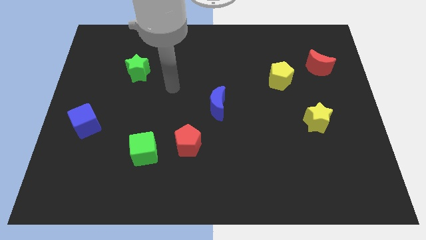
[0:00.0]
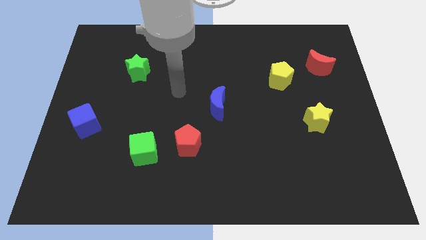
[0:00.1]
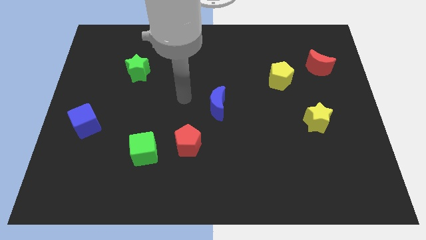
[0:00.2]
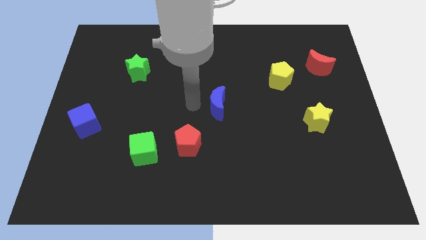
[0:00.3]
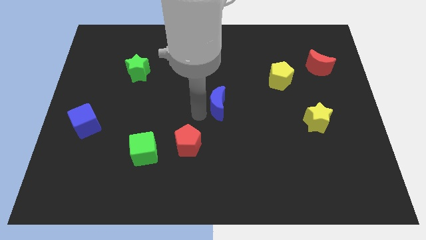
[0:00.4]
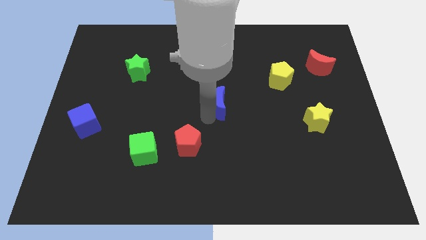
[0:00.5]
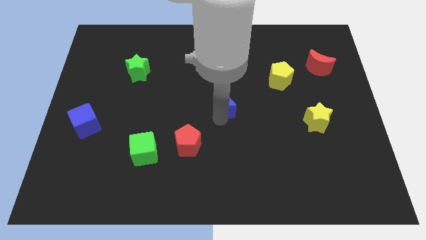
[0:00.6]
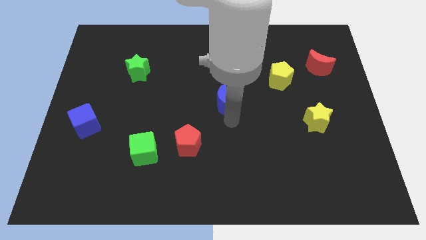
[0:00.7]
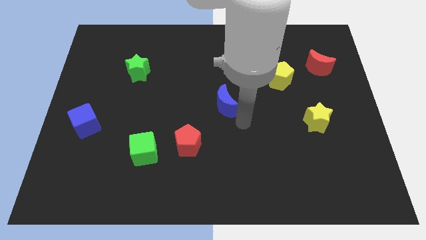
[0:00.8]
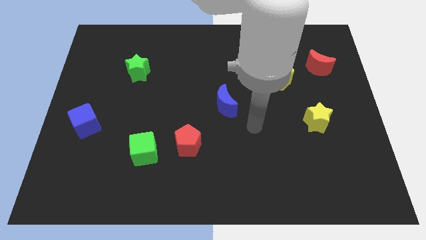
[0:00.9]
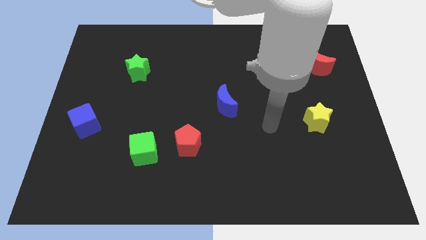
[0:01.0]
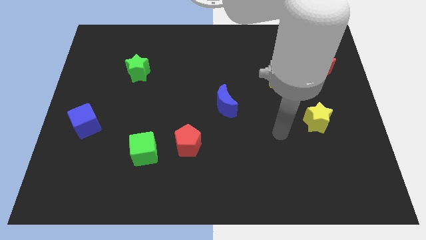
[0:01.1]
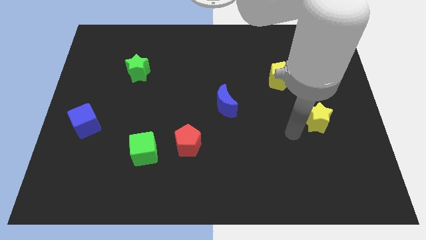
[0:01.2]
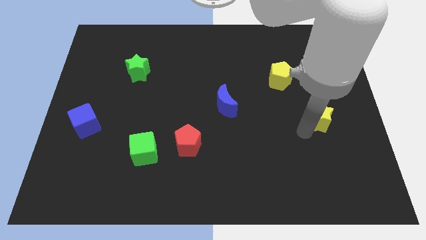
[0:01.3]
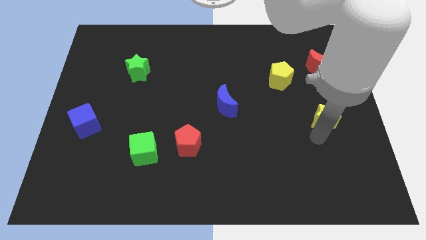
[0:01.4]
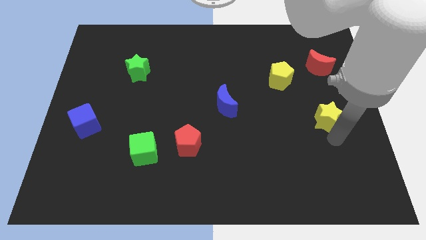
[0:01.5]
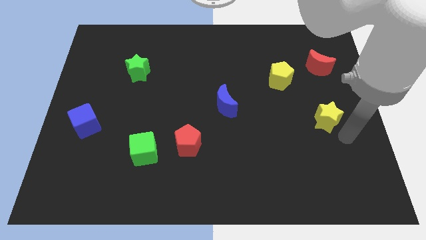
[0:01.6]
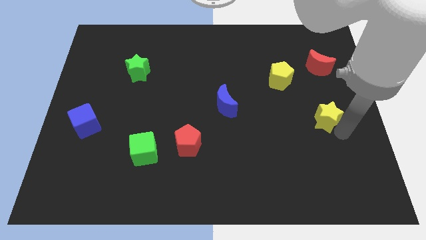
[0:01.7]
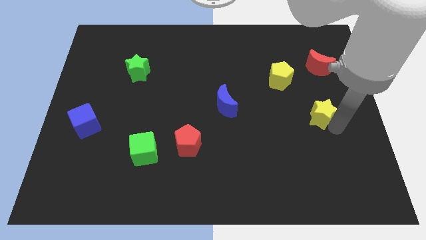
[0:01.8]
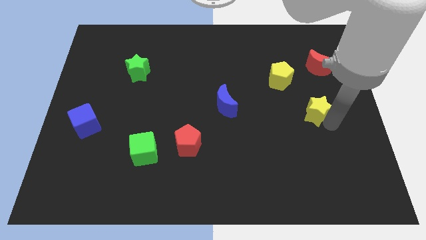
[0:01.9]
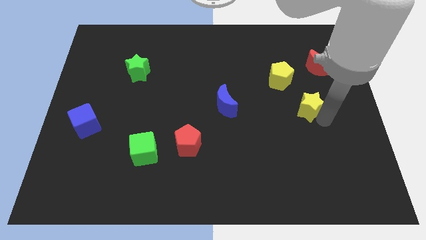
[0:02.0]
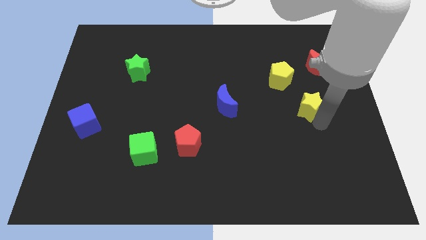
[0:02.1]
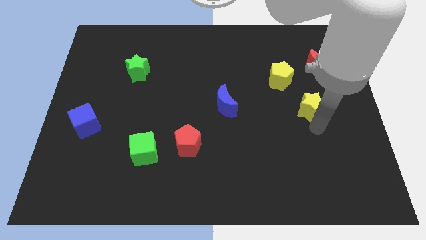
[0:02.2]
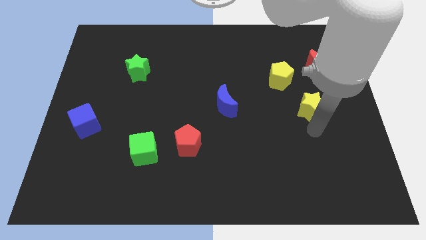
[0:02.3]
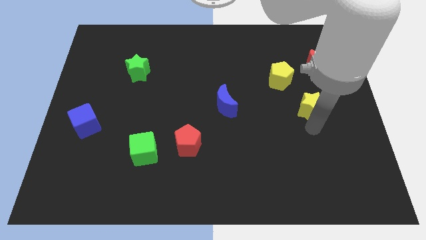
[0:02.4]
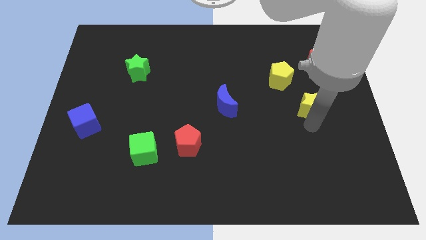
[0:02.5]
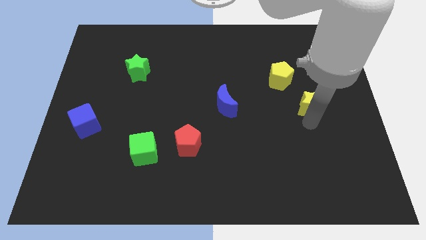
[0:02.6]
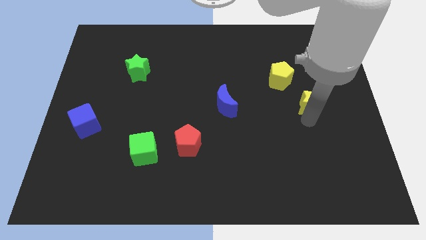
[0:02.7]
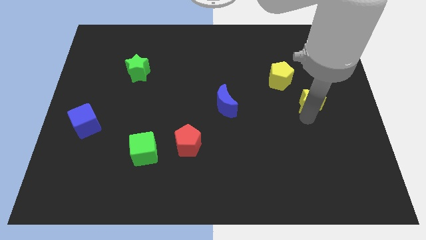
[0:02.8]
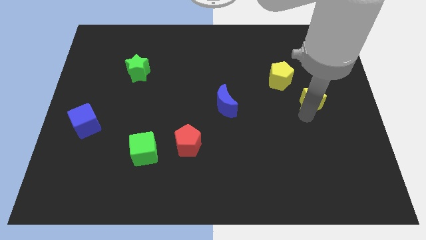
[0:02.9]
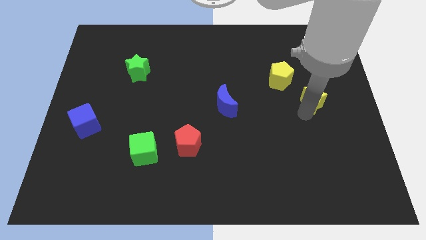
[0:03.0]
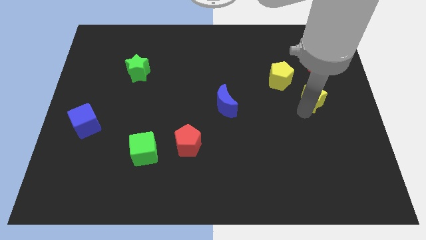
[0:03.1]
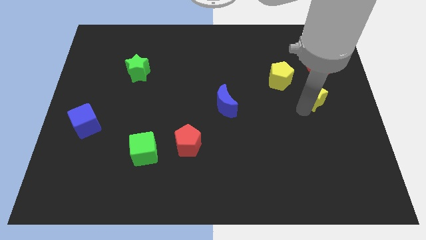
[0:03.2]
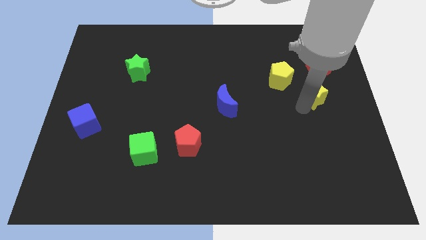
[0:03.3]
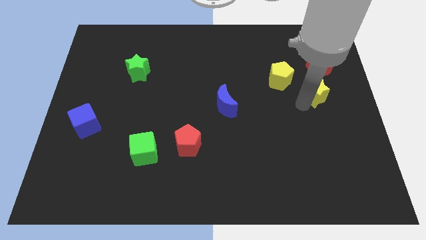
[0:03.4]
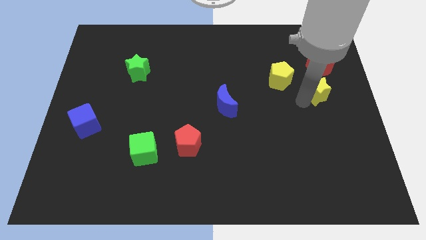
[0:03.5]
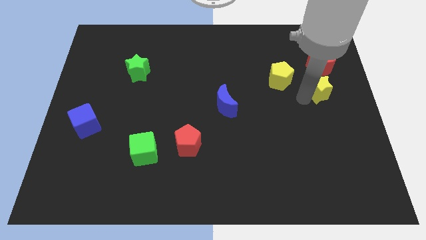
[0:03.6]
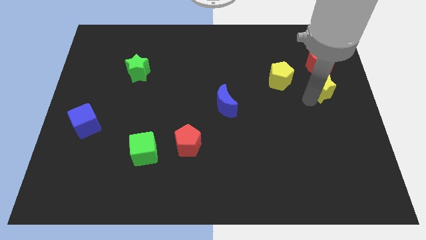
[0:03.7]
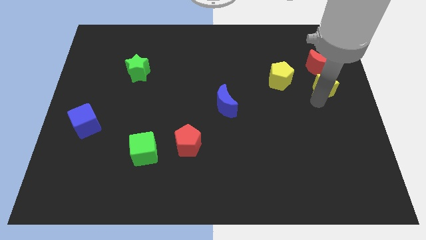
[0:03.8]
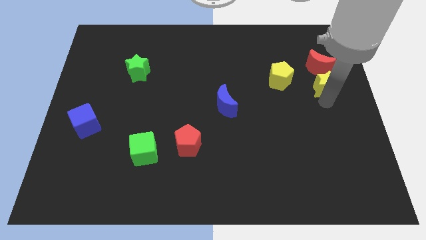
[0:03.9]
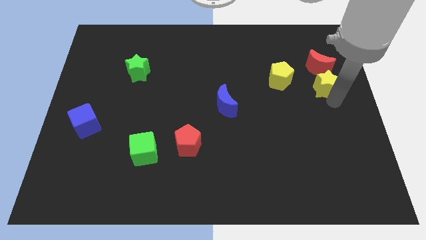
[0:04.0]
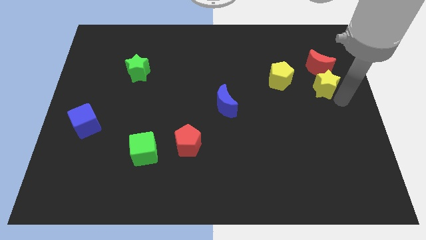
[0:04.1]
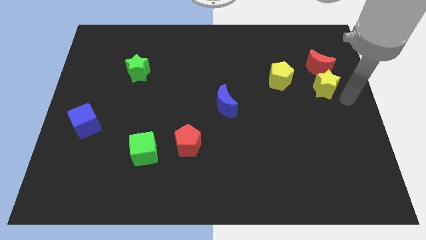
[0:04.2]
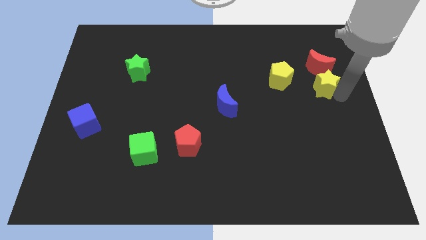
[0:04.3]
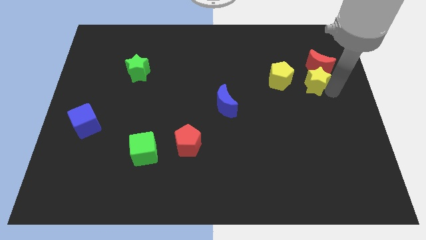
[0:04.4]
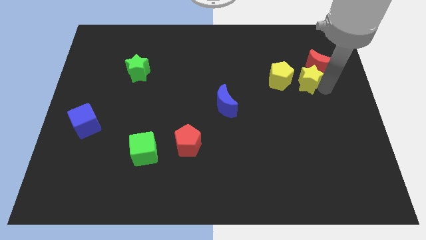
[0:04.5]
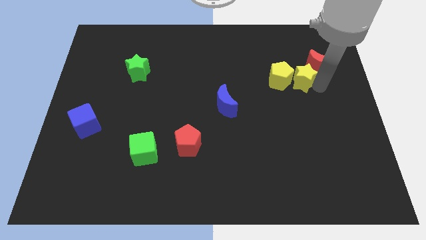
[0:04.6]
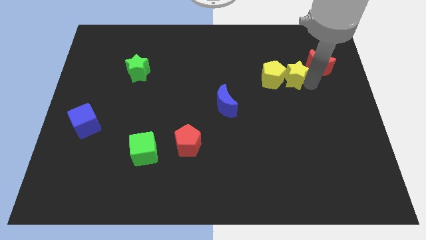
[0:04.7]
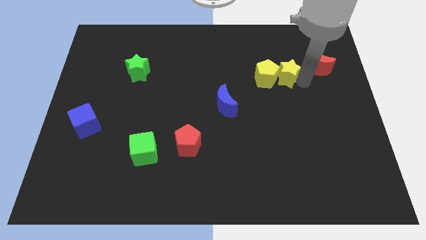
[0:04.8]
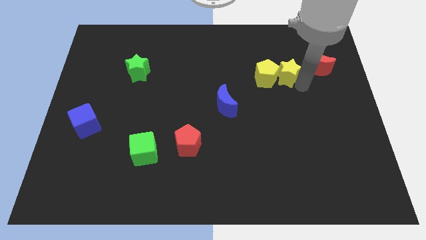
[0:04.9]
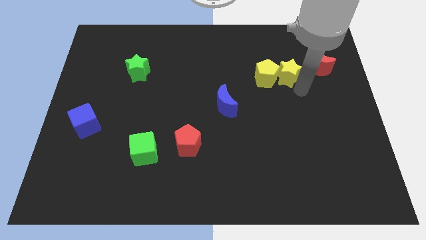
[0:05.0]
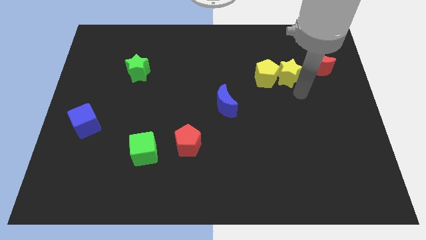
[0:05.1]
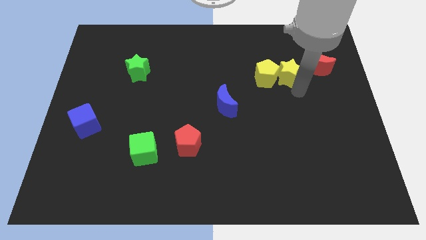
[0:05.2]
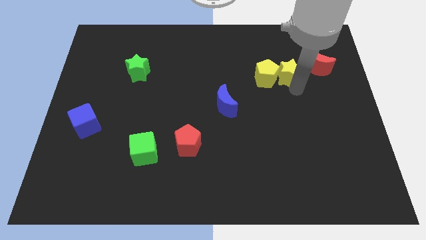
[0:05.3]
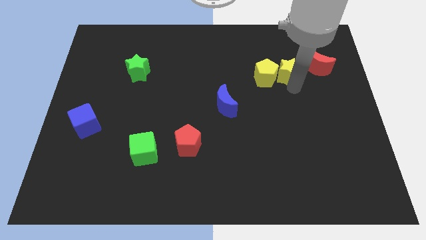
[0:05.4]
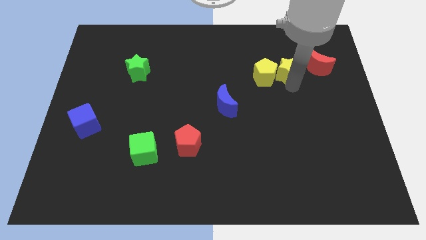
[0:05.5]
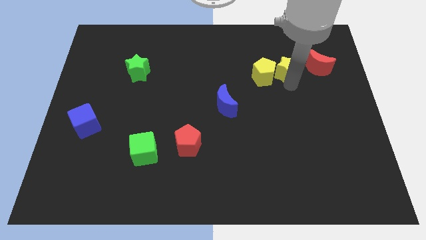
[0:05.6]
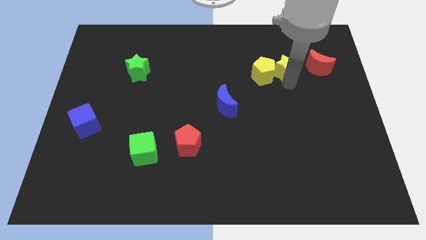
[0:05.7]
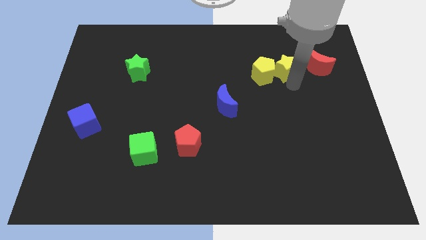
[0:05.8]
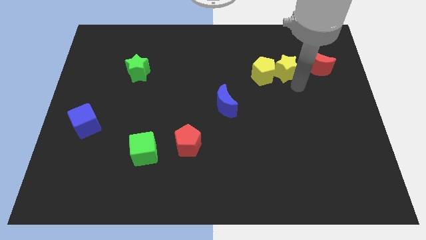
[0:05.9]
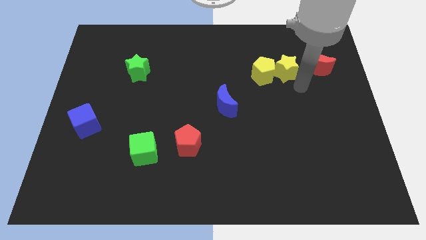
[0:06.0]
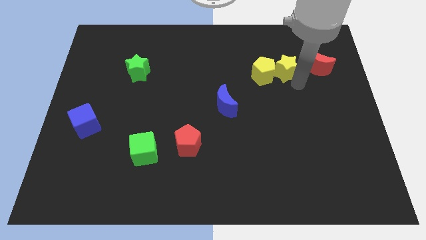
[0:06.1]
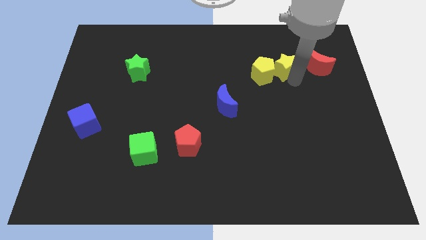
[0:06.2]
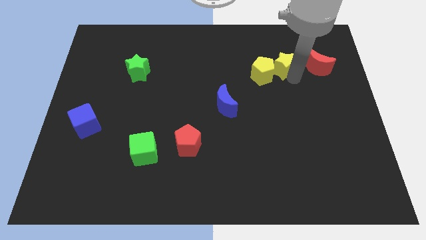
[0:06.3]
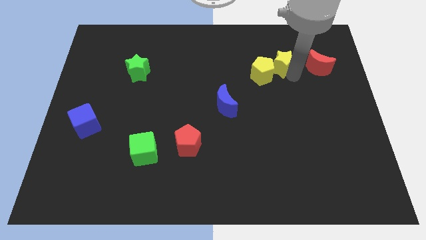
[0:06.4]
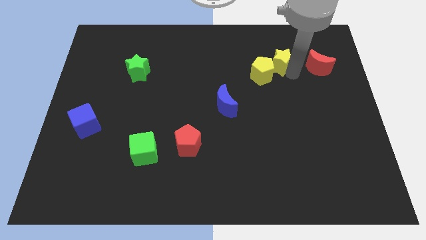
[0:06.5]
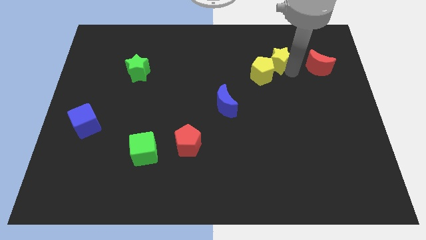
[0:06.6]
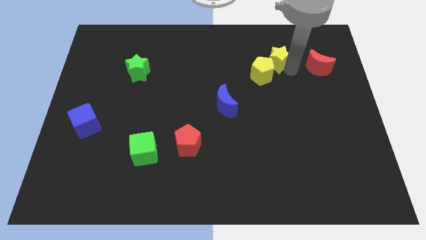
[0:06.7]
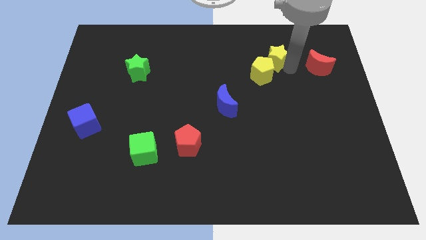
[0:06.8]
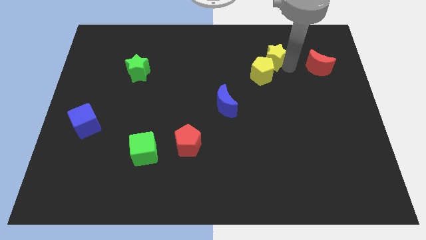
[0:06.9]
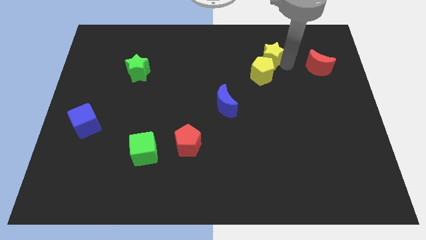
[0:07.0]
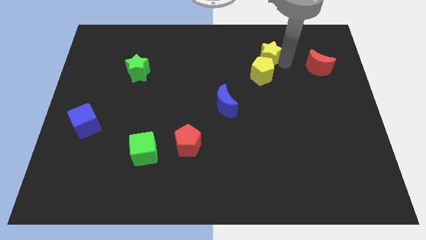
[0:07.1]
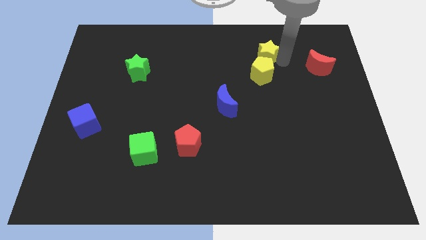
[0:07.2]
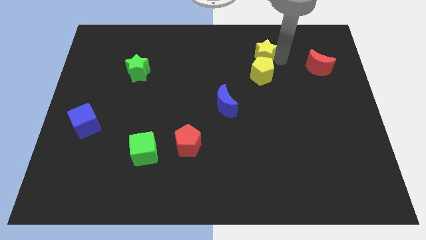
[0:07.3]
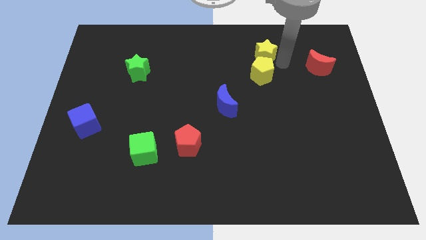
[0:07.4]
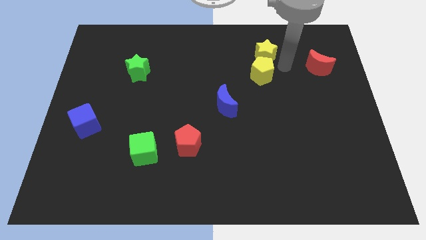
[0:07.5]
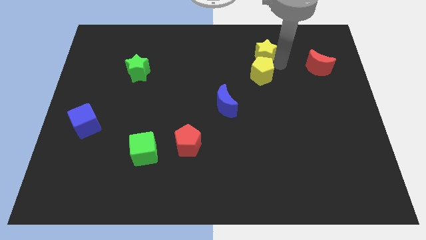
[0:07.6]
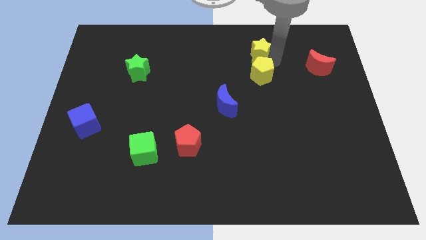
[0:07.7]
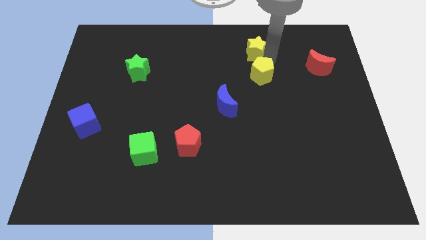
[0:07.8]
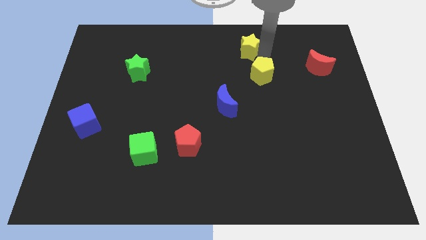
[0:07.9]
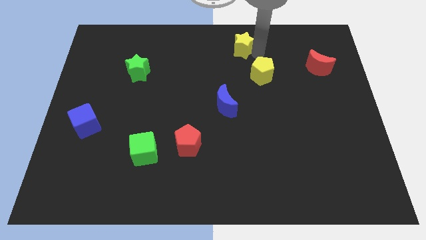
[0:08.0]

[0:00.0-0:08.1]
move the yellow star to the top side
